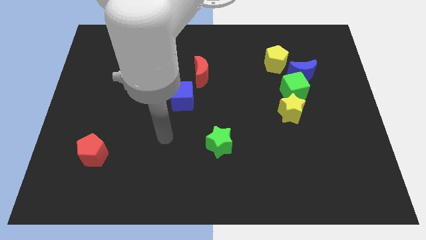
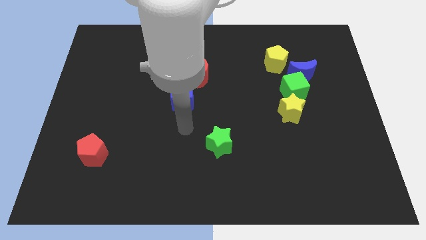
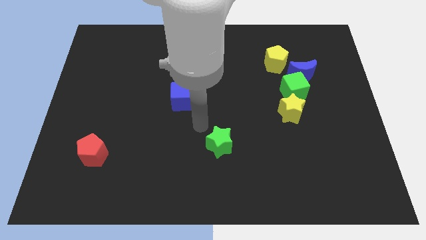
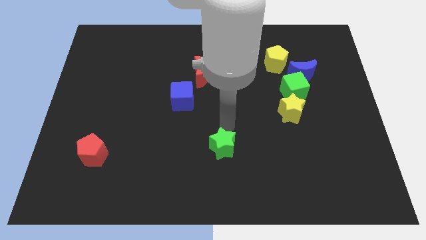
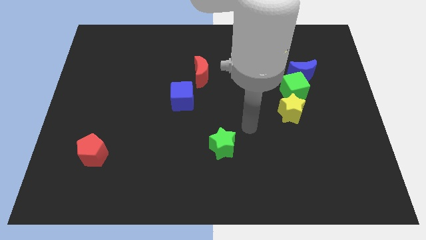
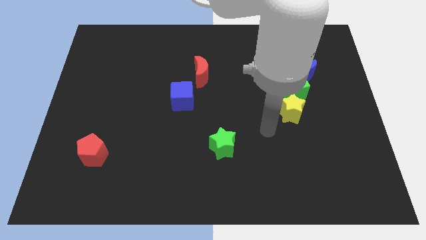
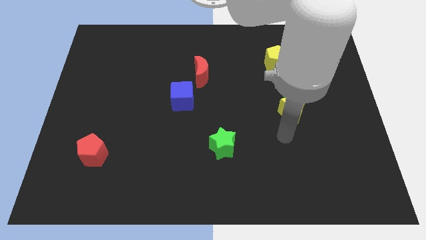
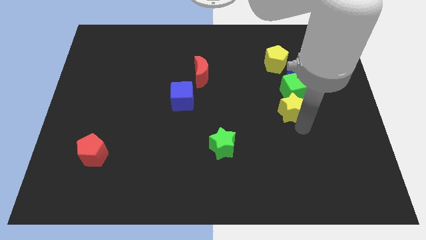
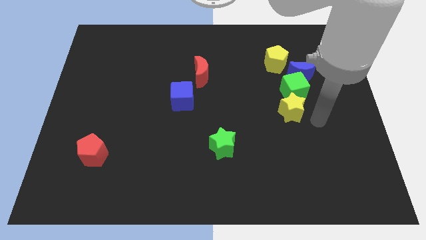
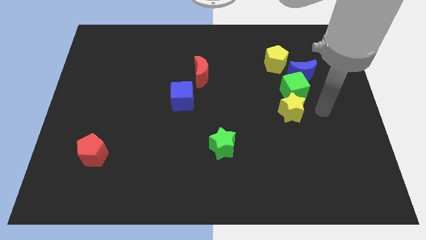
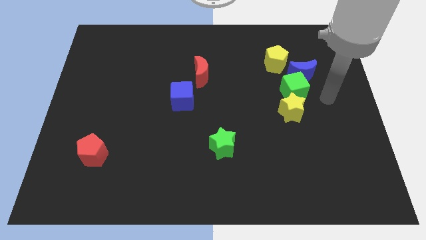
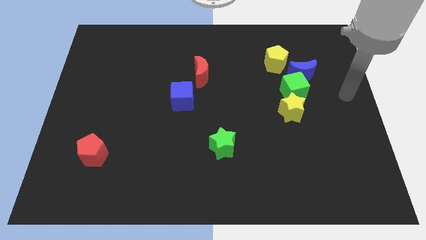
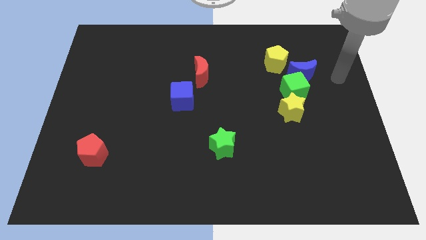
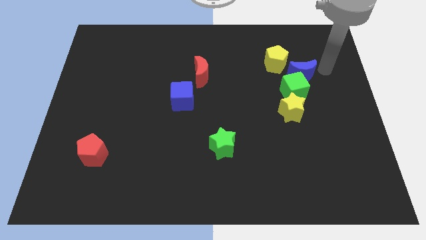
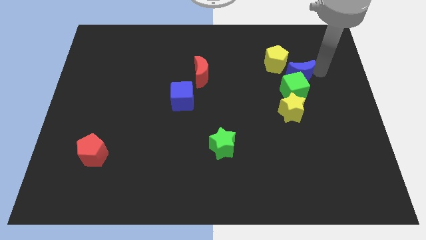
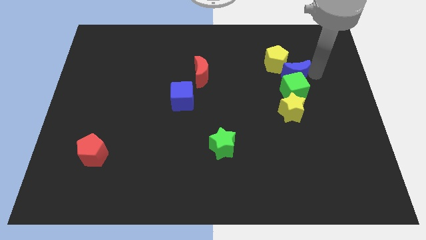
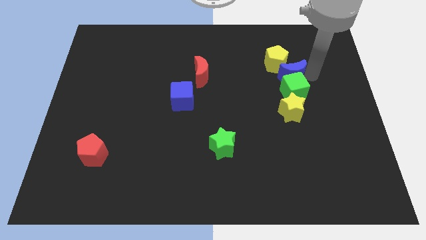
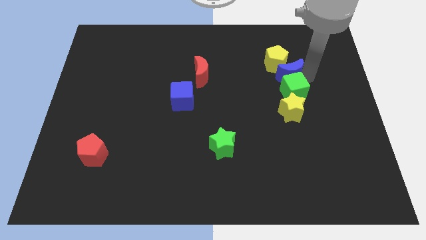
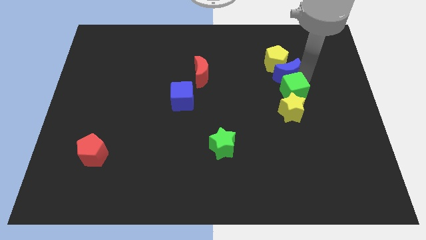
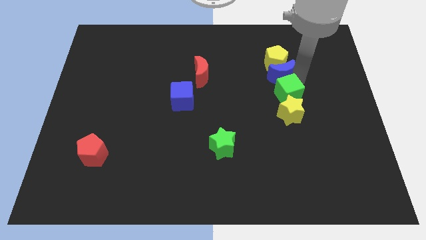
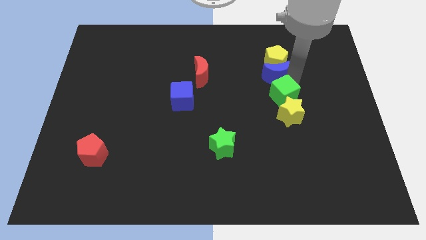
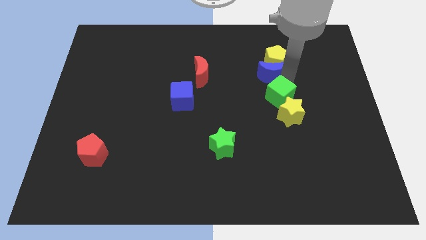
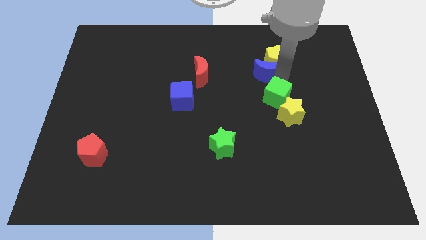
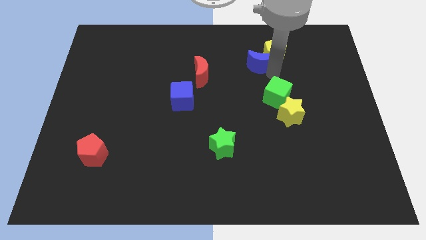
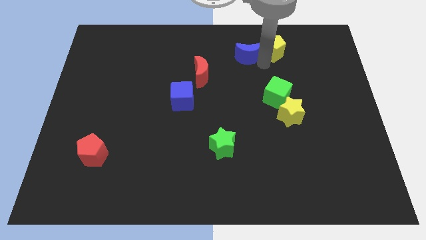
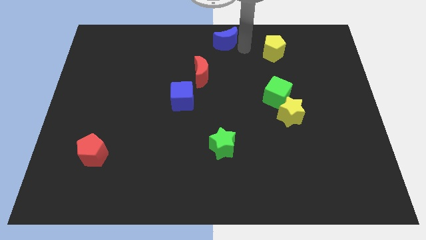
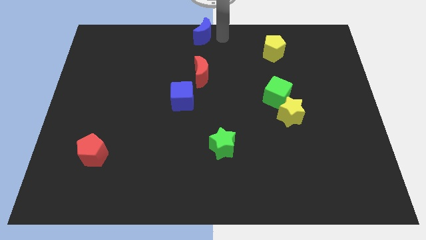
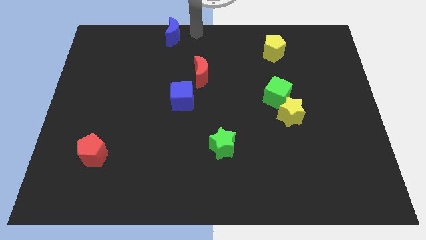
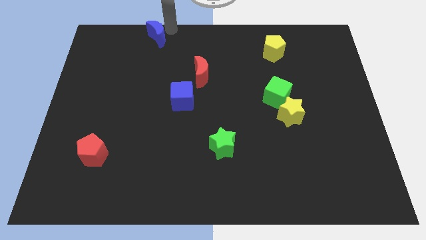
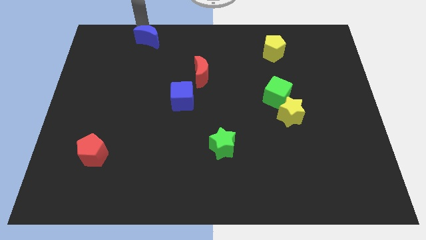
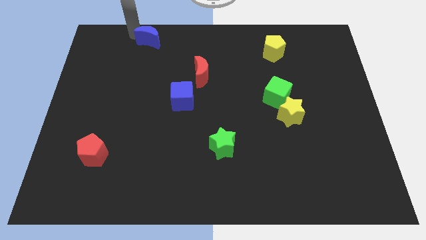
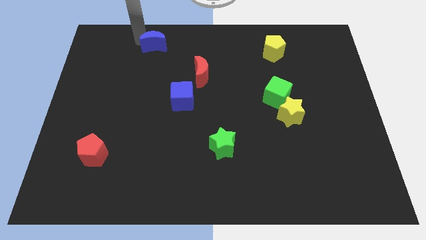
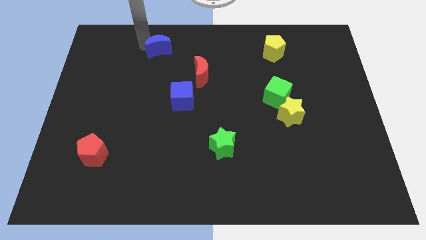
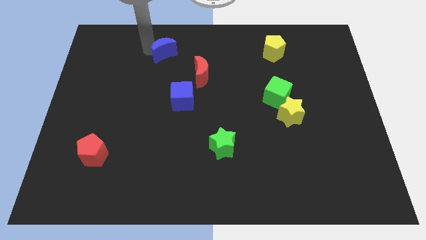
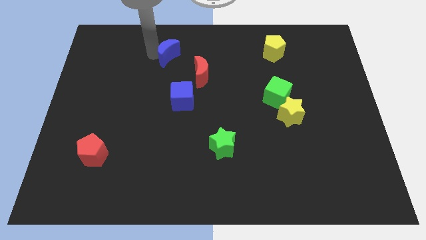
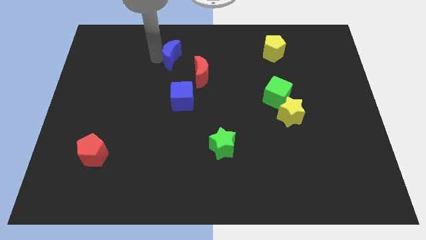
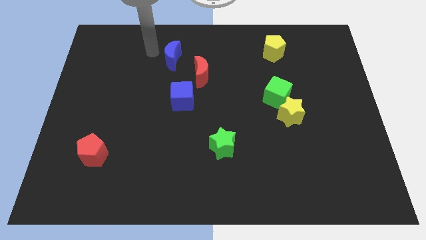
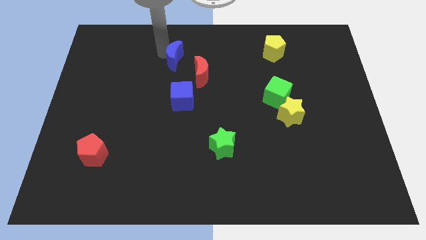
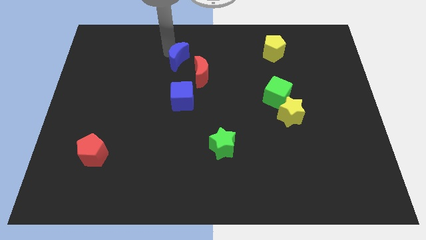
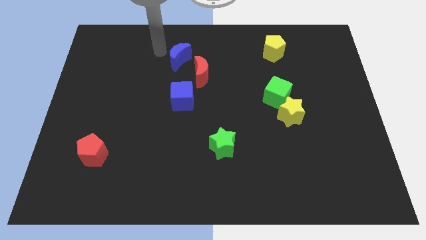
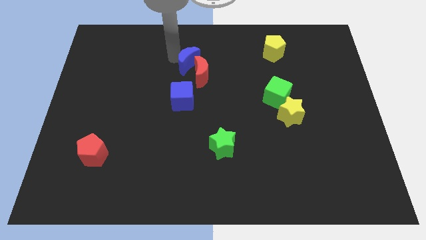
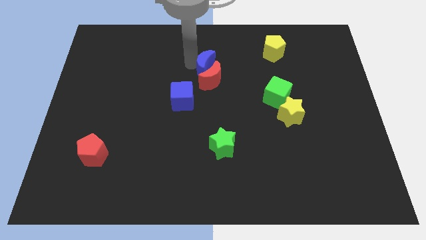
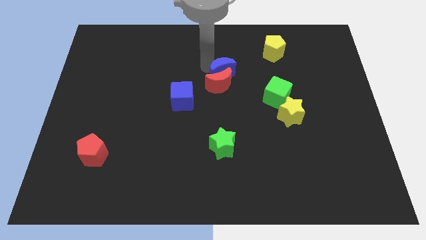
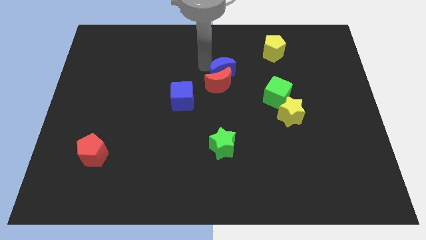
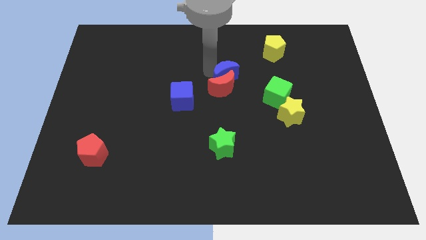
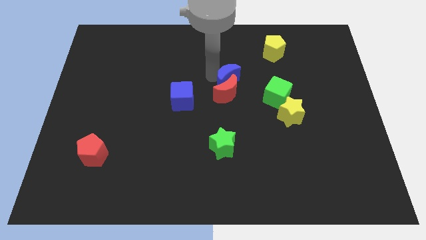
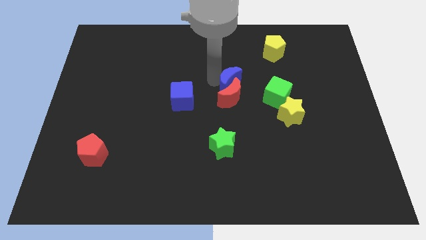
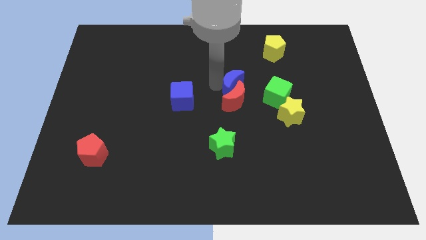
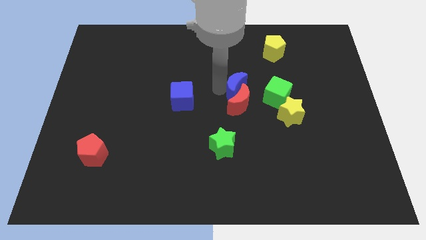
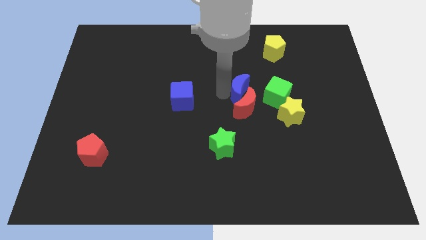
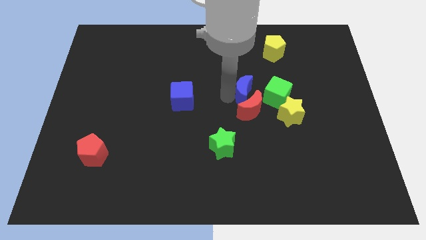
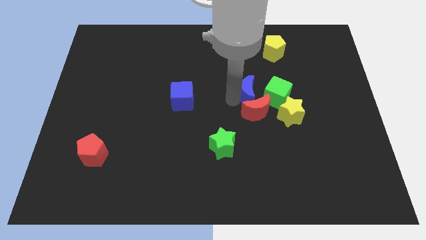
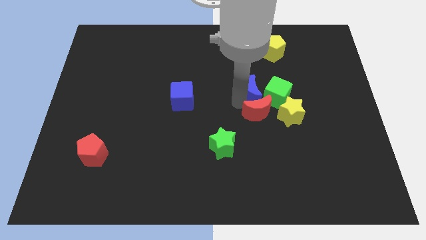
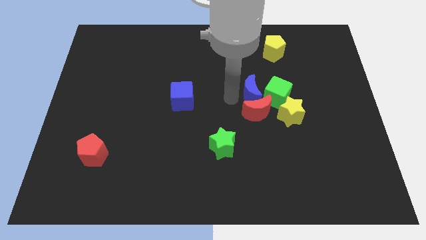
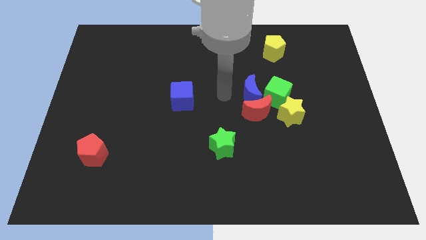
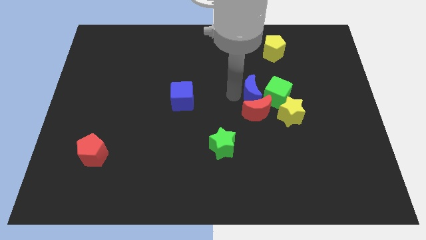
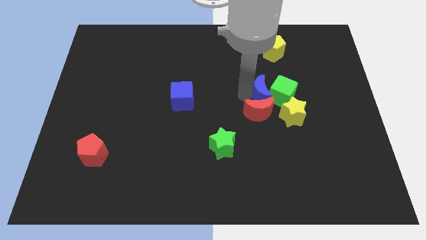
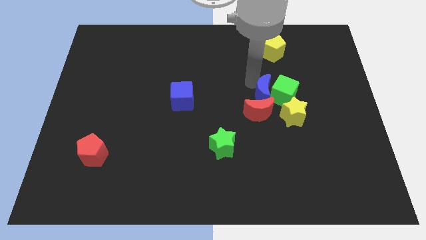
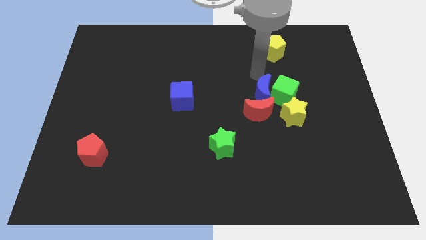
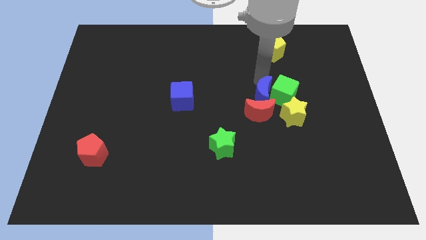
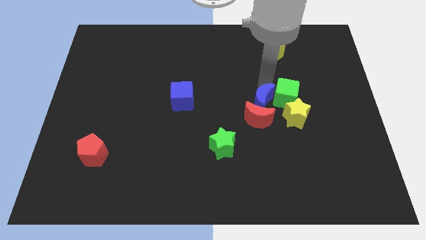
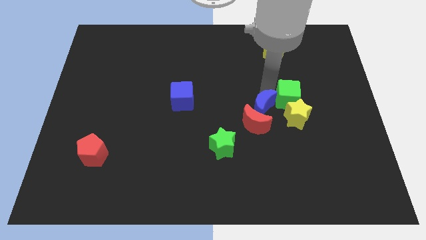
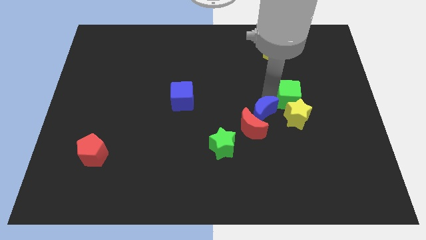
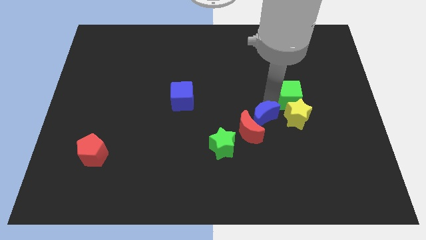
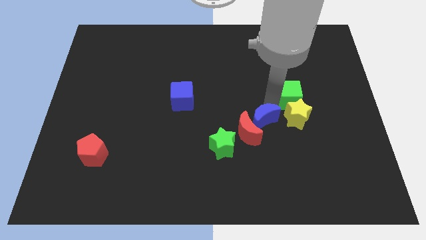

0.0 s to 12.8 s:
push the blue moon to the bottom left of the yellow star
